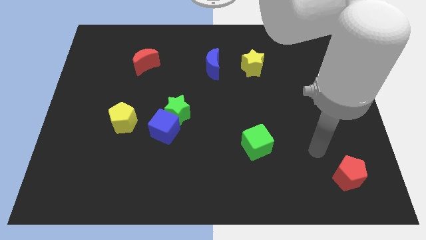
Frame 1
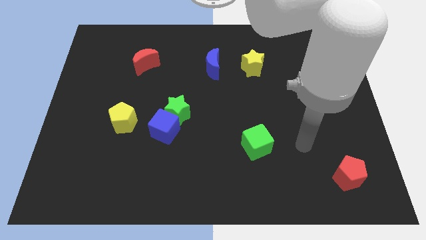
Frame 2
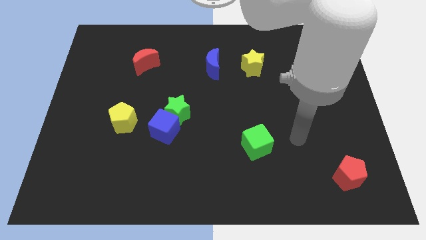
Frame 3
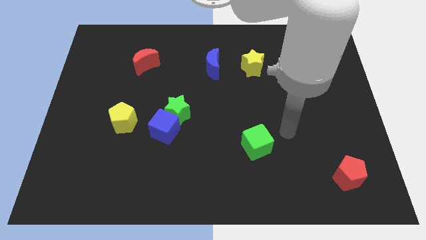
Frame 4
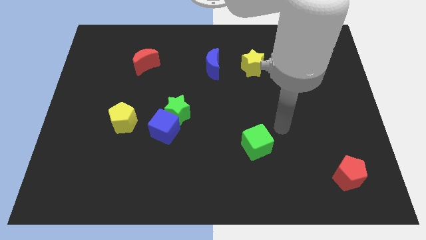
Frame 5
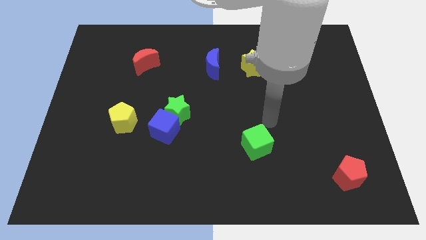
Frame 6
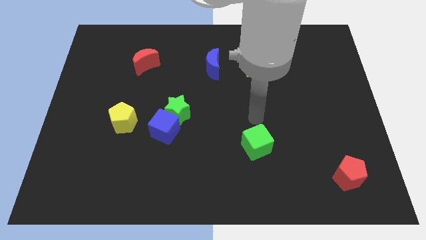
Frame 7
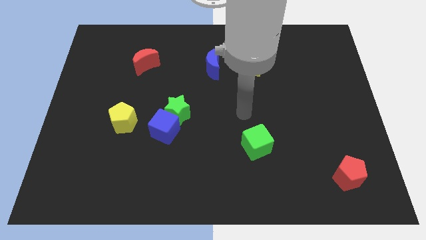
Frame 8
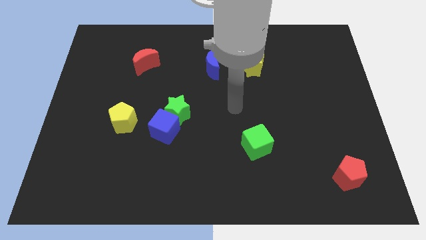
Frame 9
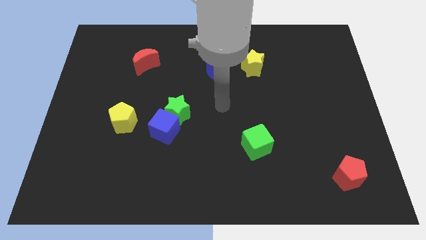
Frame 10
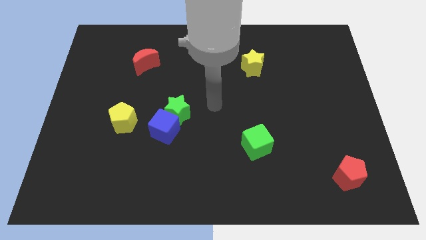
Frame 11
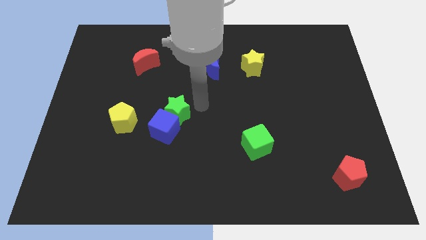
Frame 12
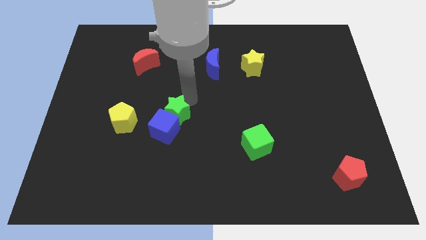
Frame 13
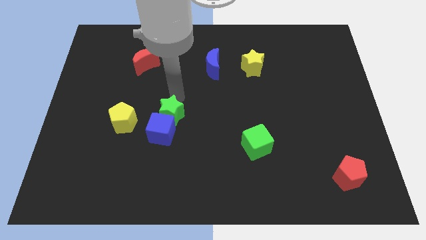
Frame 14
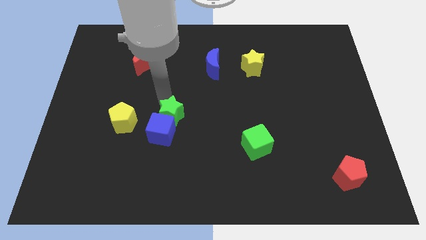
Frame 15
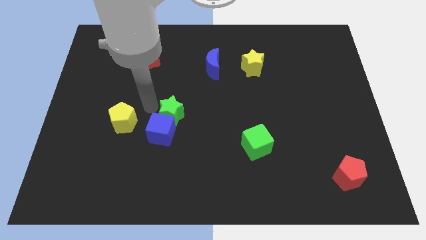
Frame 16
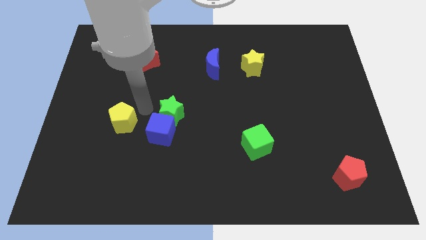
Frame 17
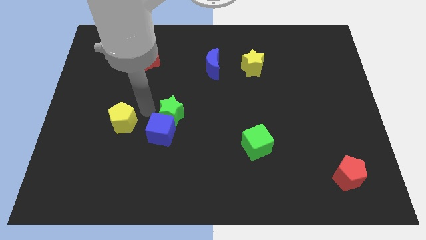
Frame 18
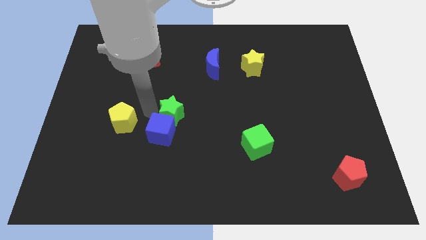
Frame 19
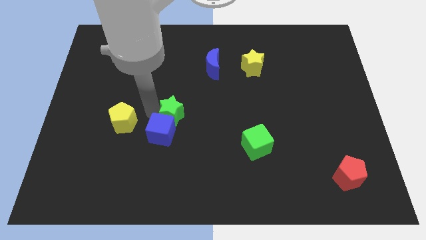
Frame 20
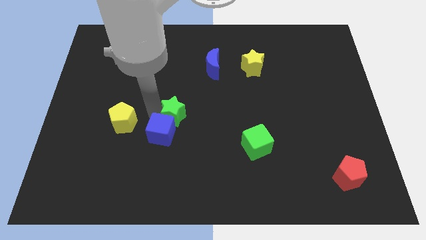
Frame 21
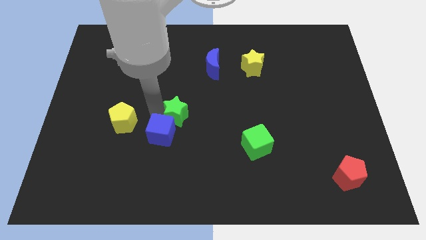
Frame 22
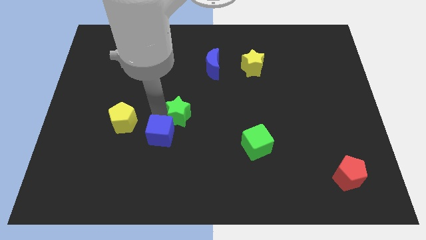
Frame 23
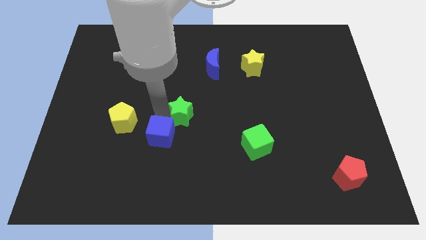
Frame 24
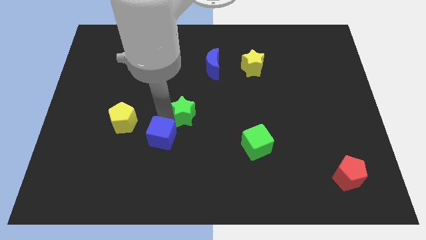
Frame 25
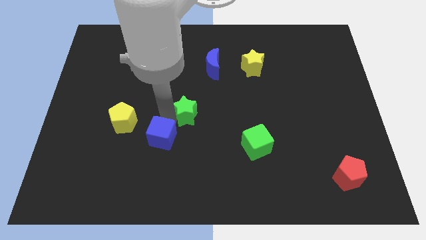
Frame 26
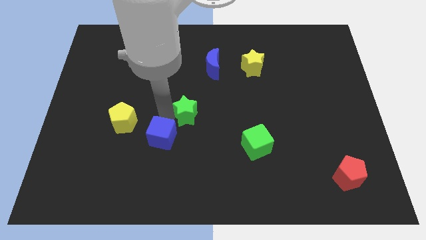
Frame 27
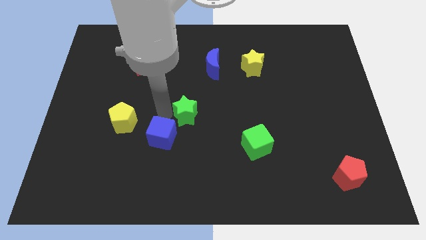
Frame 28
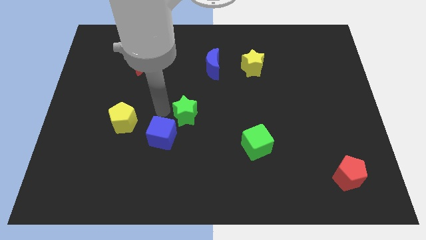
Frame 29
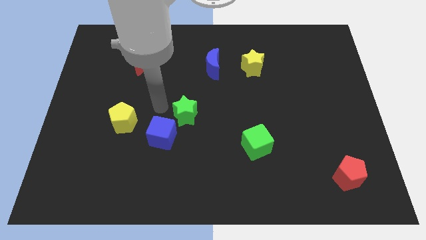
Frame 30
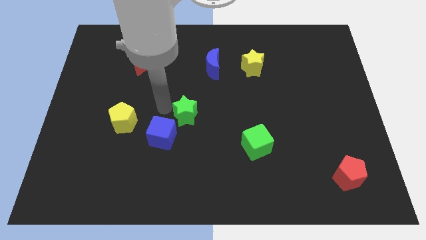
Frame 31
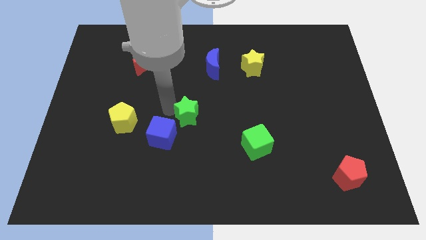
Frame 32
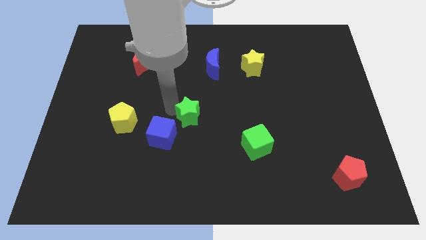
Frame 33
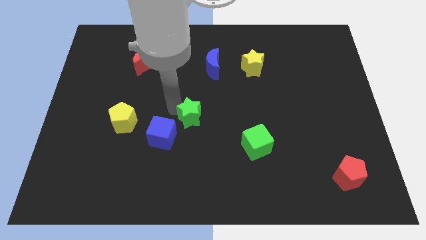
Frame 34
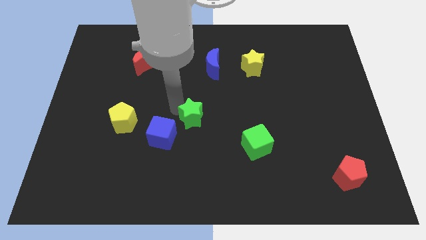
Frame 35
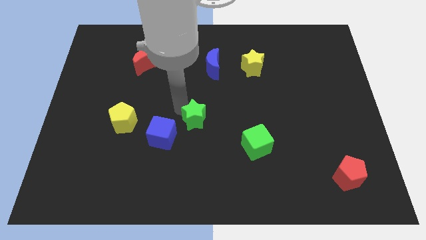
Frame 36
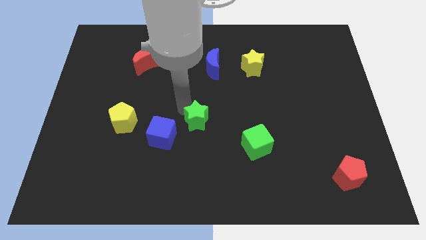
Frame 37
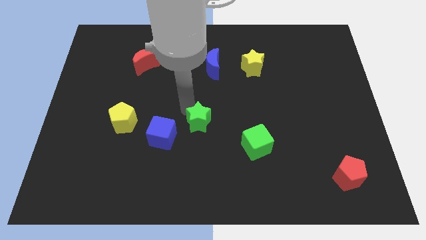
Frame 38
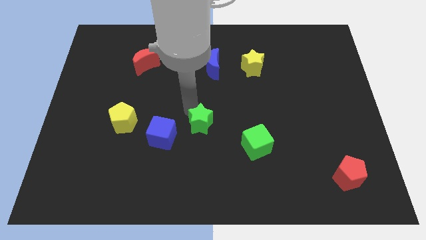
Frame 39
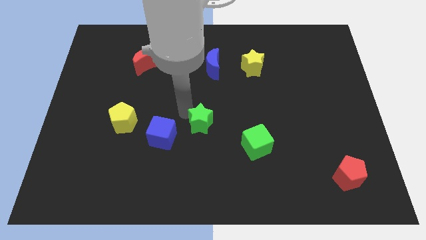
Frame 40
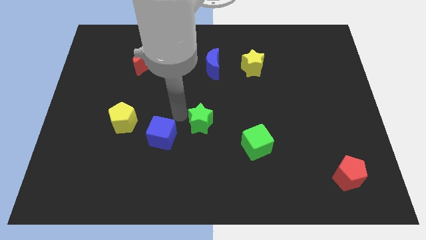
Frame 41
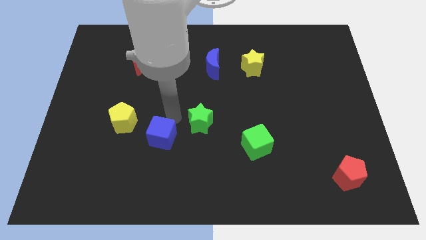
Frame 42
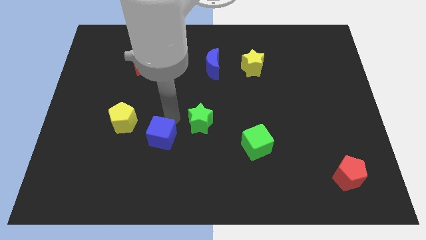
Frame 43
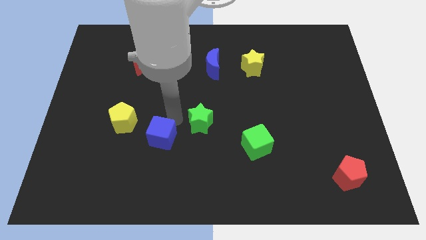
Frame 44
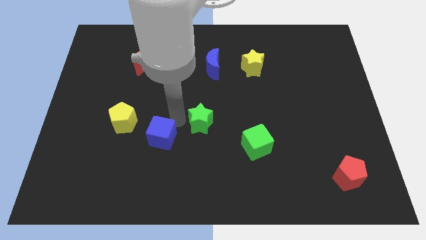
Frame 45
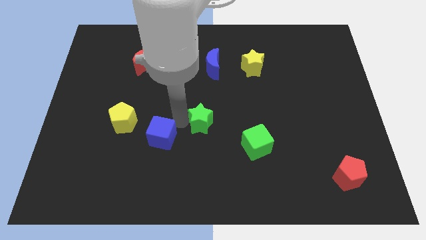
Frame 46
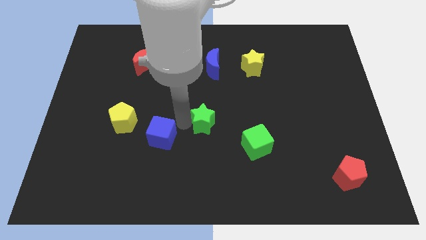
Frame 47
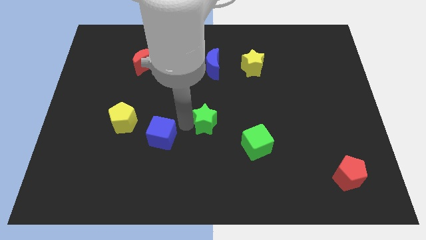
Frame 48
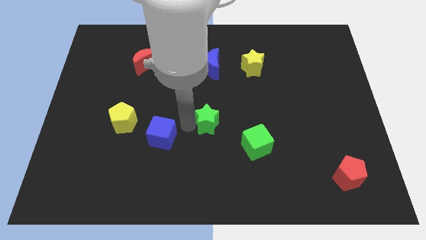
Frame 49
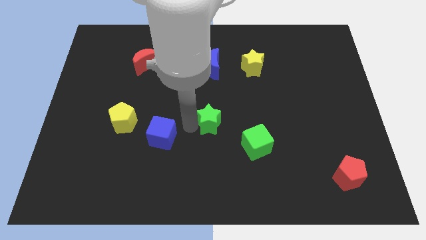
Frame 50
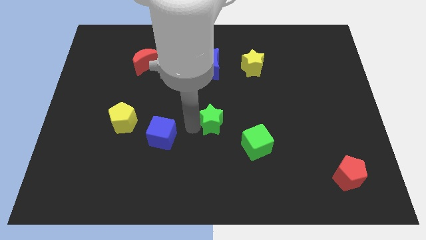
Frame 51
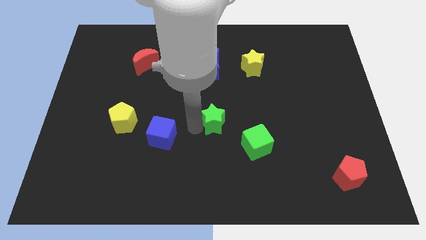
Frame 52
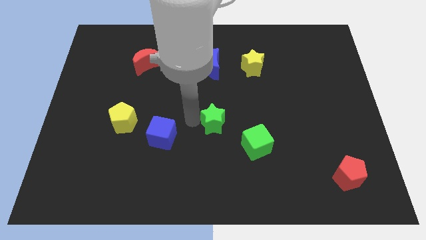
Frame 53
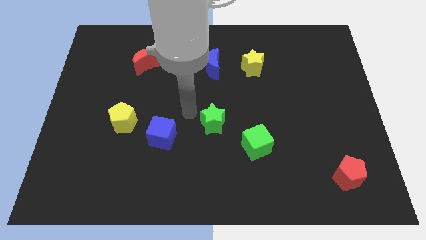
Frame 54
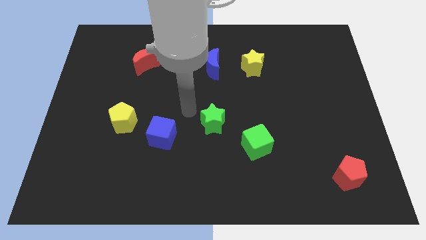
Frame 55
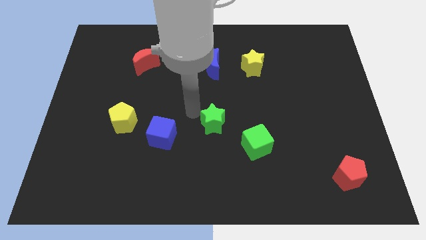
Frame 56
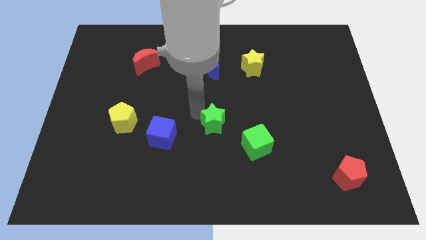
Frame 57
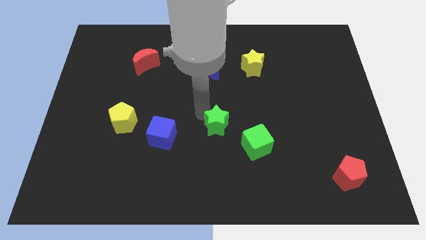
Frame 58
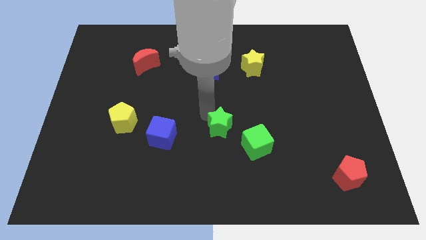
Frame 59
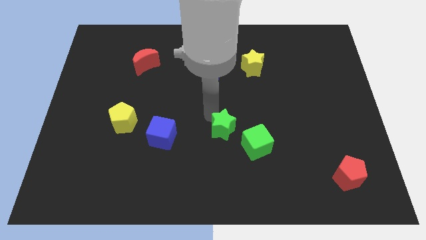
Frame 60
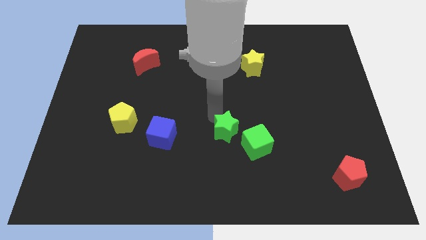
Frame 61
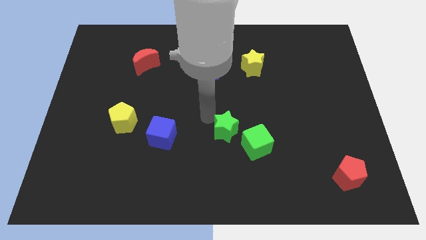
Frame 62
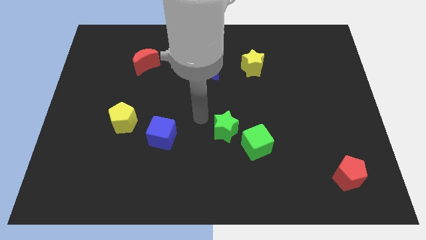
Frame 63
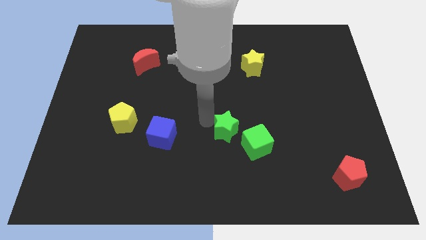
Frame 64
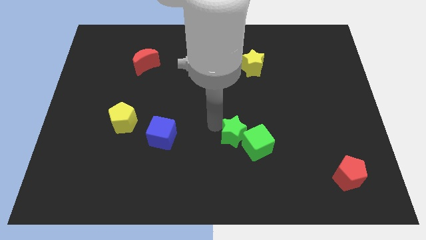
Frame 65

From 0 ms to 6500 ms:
push the green star close to the green cube
